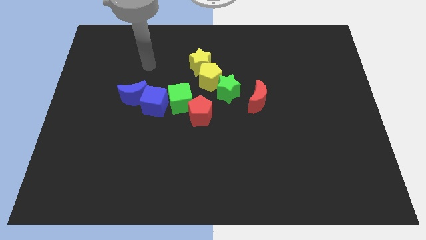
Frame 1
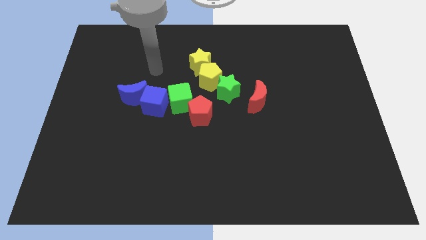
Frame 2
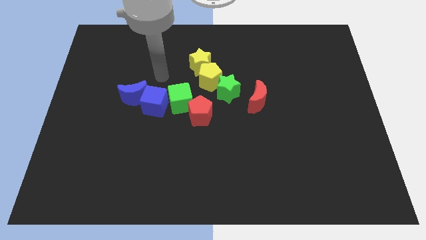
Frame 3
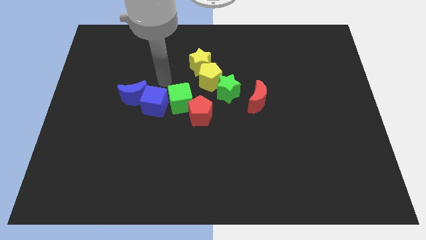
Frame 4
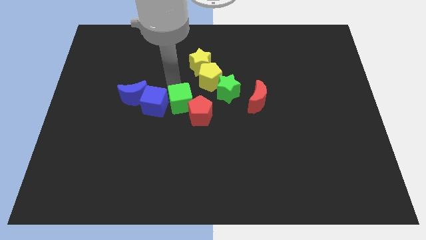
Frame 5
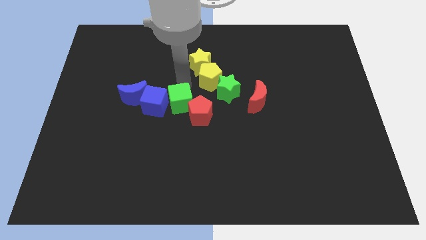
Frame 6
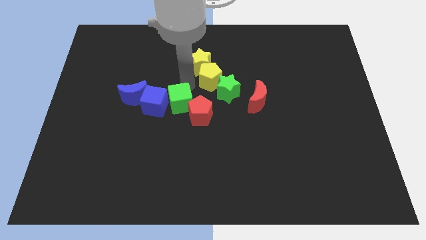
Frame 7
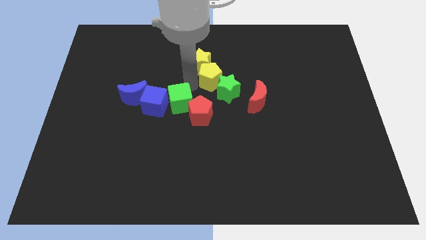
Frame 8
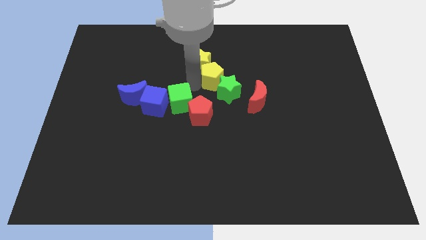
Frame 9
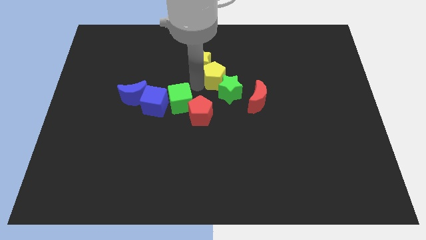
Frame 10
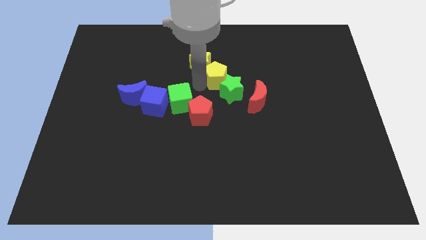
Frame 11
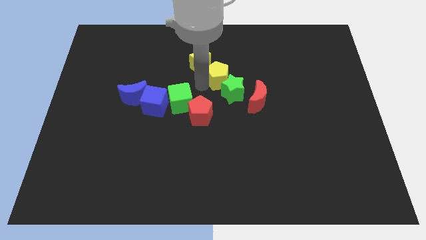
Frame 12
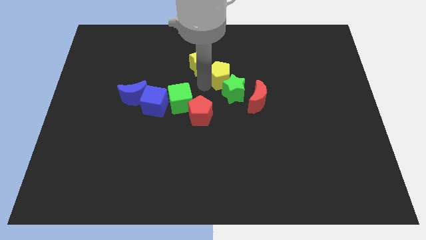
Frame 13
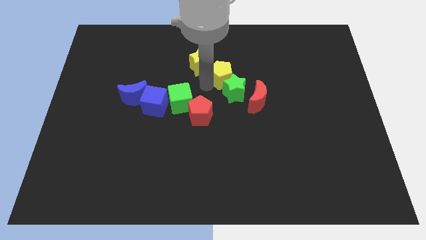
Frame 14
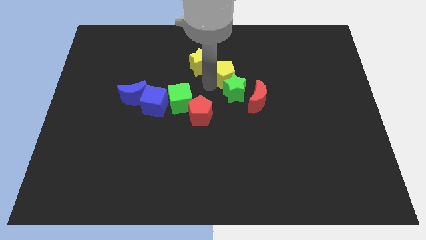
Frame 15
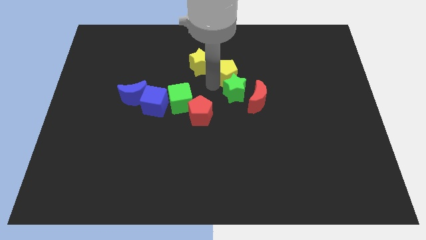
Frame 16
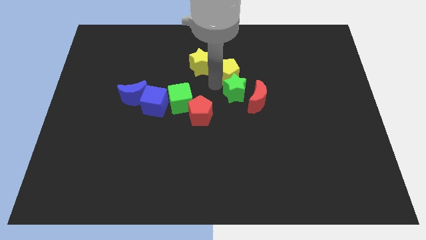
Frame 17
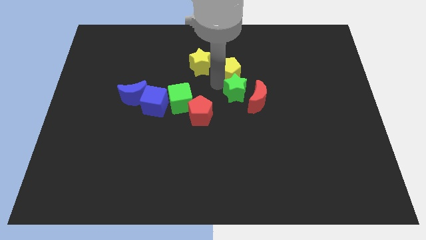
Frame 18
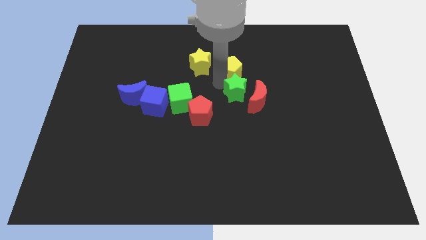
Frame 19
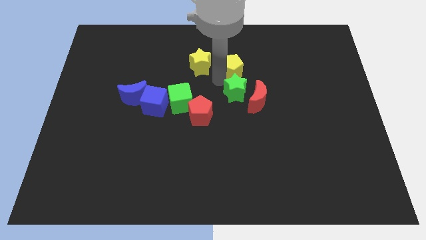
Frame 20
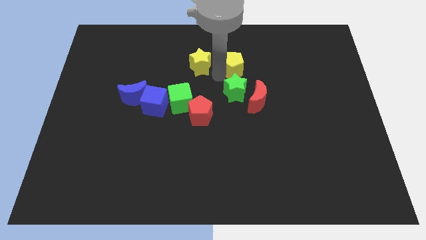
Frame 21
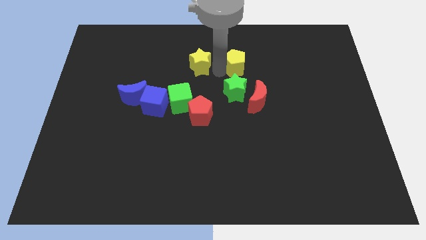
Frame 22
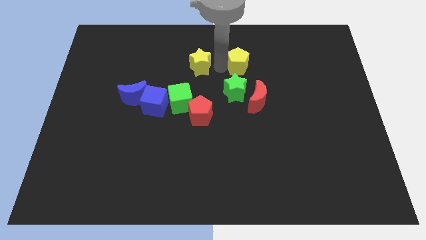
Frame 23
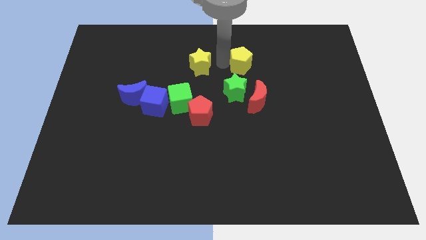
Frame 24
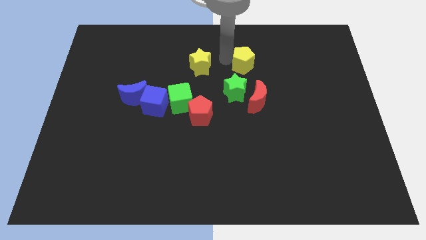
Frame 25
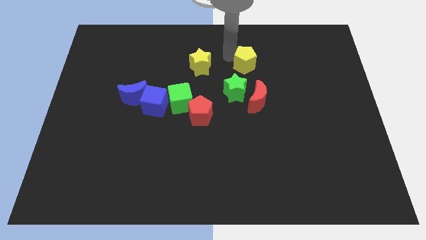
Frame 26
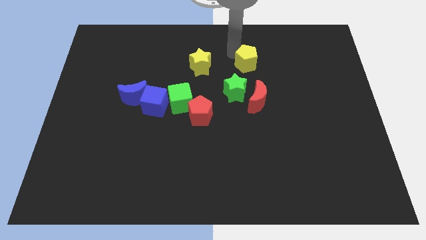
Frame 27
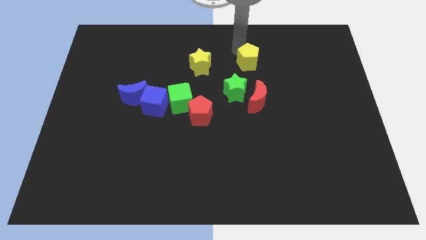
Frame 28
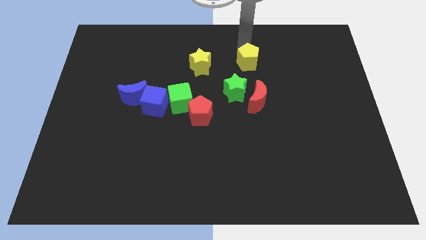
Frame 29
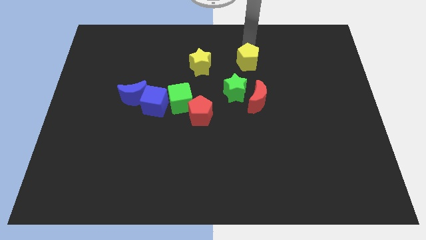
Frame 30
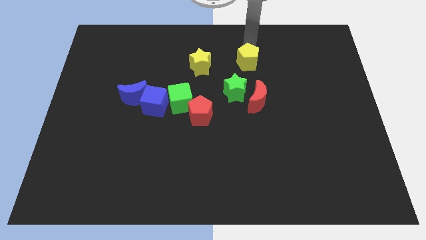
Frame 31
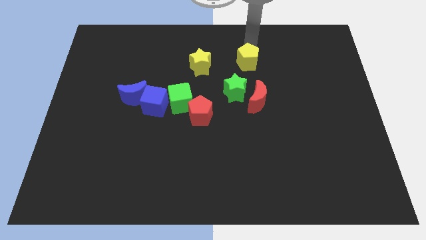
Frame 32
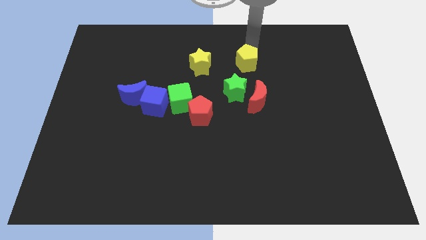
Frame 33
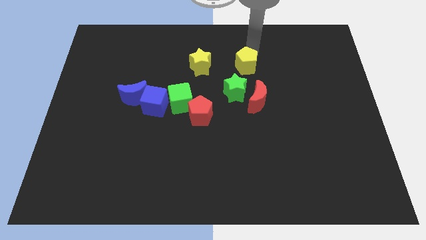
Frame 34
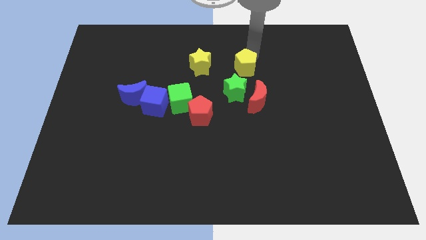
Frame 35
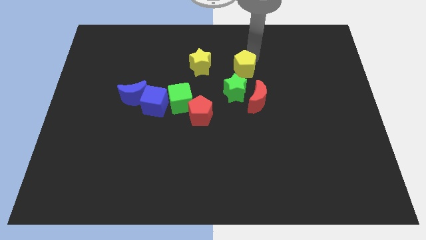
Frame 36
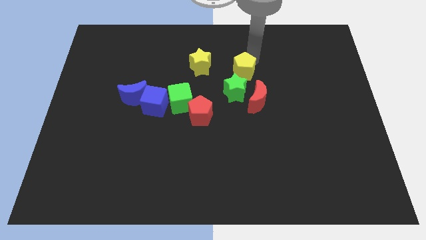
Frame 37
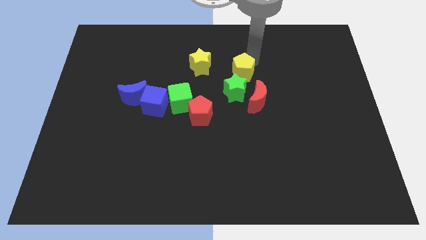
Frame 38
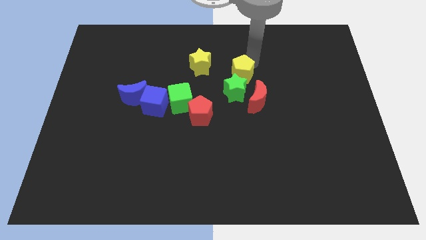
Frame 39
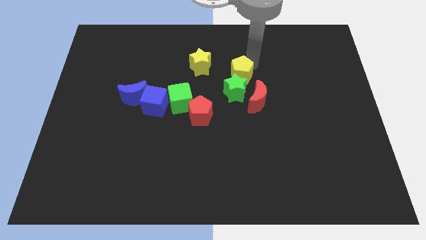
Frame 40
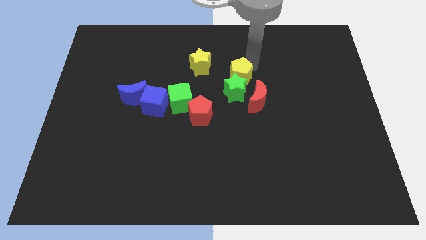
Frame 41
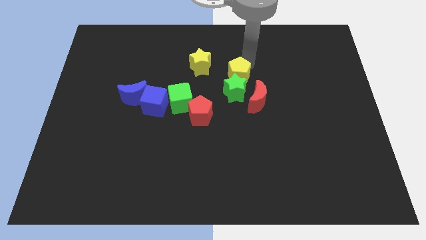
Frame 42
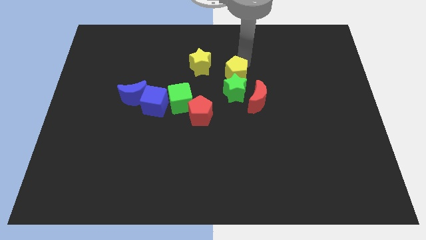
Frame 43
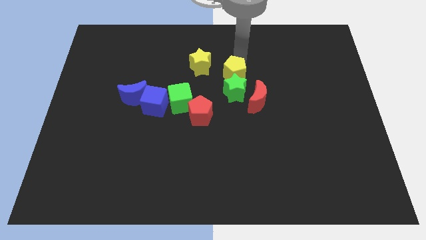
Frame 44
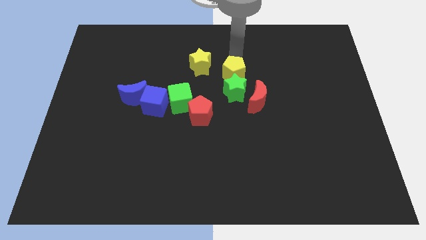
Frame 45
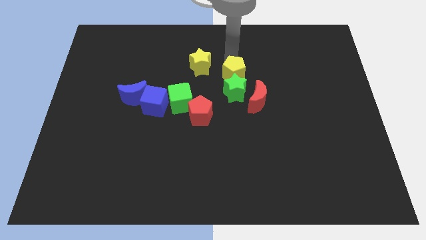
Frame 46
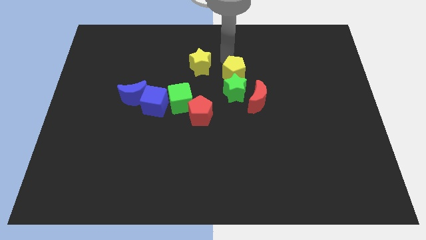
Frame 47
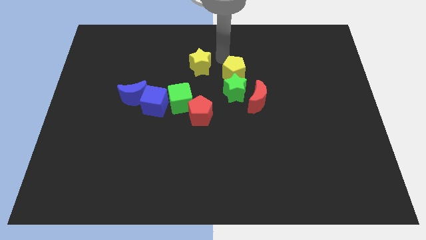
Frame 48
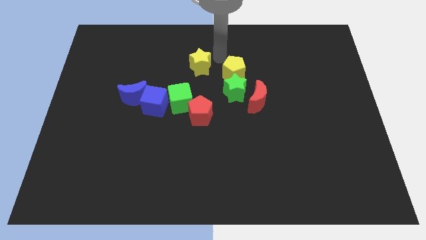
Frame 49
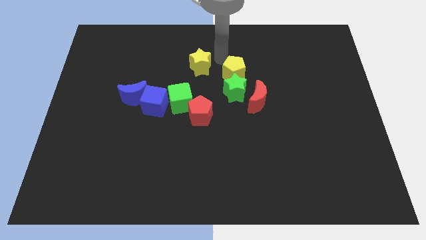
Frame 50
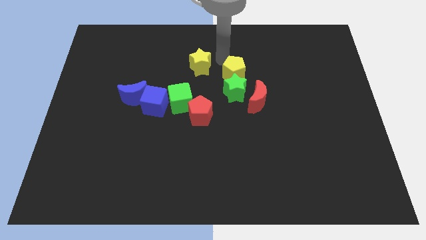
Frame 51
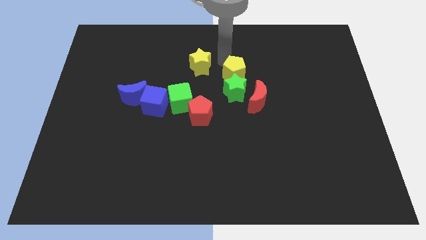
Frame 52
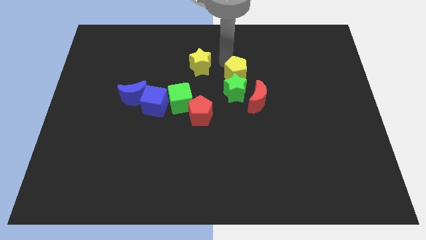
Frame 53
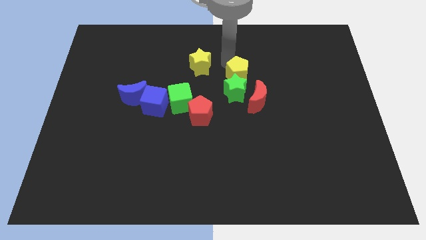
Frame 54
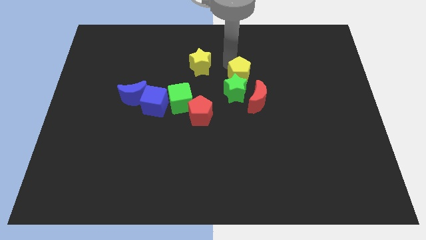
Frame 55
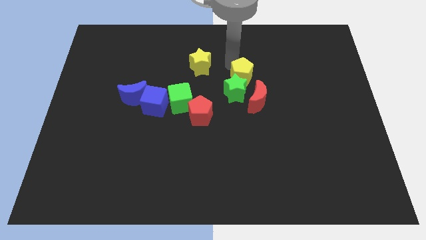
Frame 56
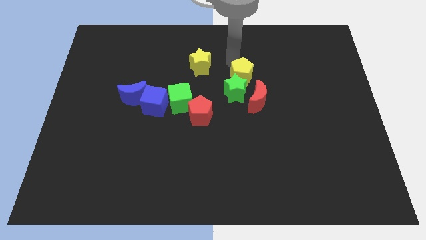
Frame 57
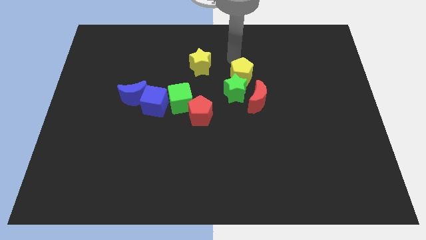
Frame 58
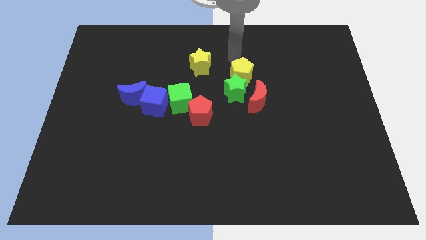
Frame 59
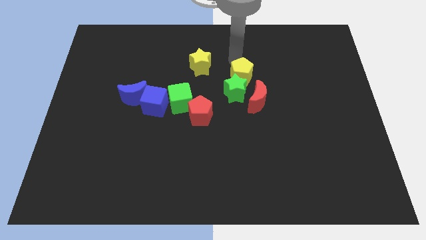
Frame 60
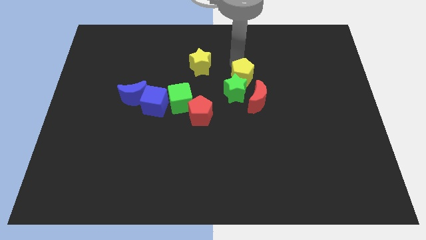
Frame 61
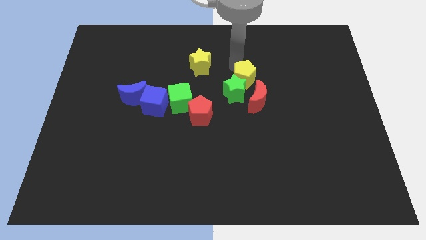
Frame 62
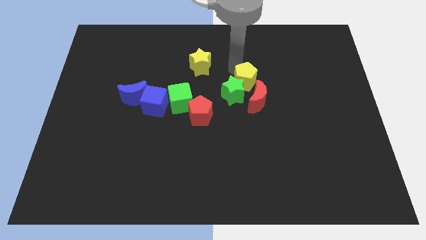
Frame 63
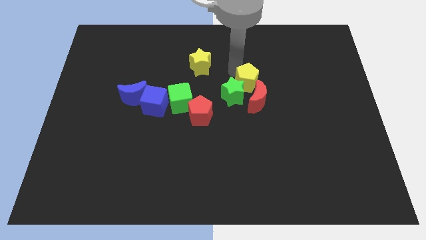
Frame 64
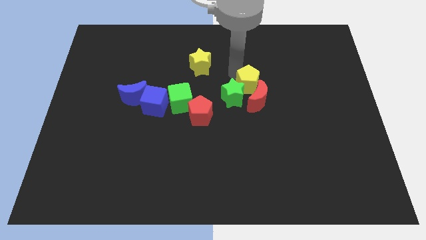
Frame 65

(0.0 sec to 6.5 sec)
slide the yellow pentagon close to the red moon
